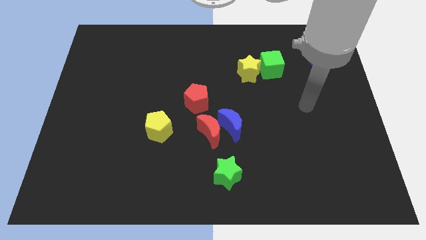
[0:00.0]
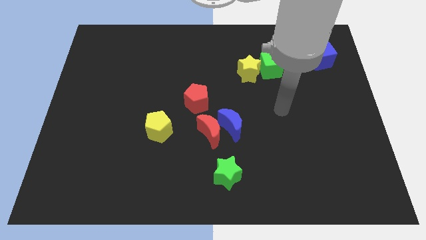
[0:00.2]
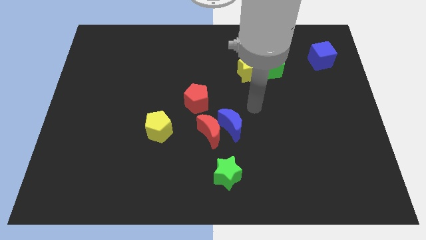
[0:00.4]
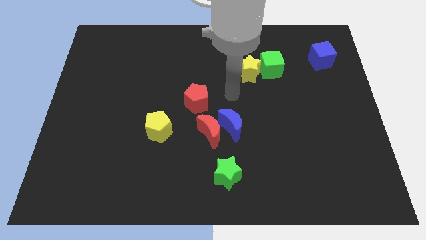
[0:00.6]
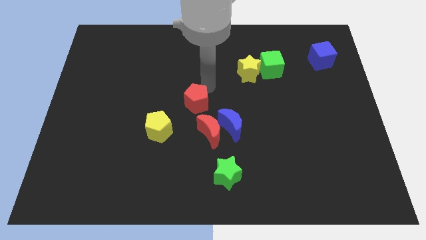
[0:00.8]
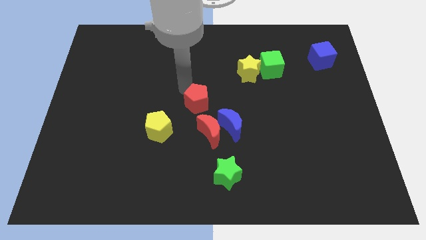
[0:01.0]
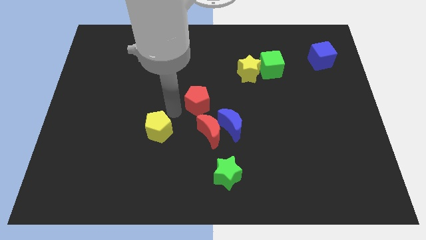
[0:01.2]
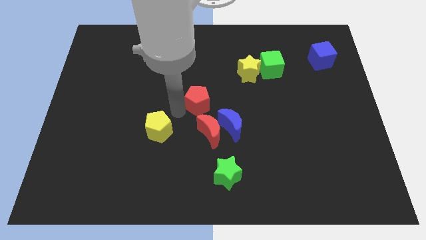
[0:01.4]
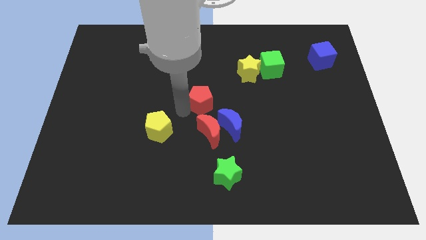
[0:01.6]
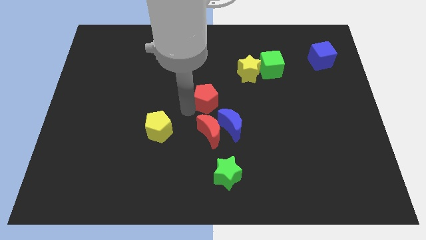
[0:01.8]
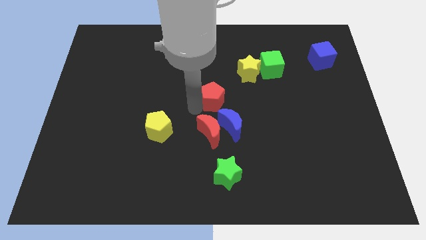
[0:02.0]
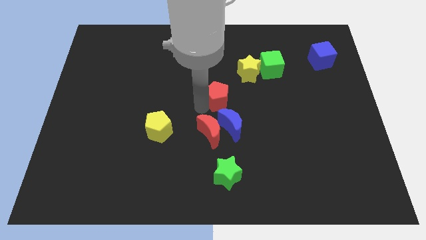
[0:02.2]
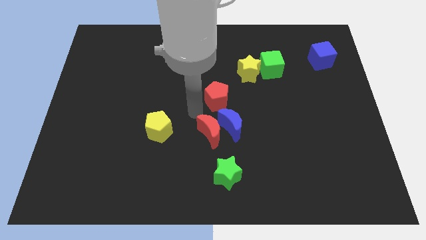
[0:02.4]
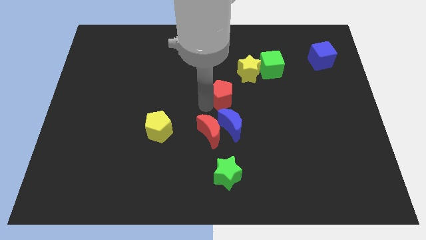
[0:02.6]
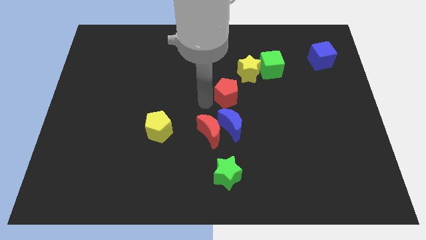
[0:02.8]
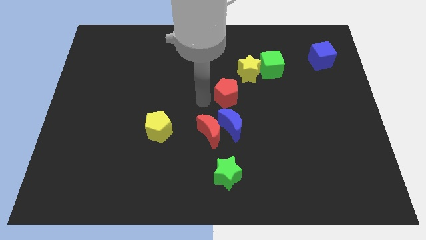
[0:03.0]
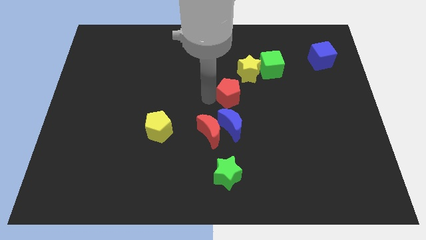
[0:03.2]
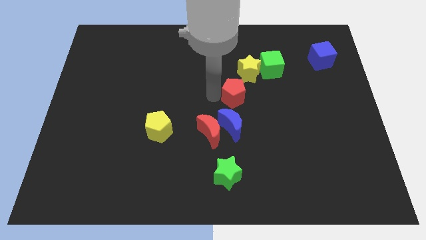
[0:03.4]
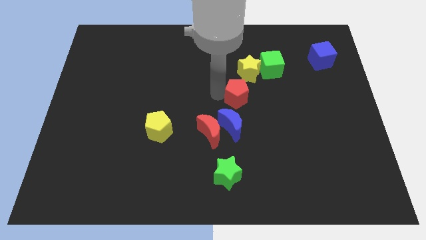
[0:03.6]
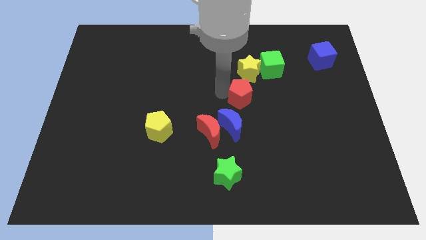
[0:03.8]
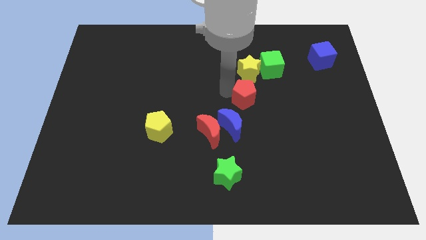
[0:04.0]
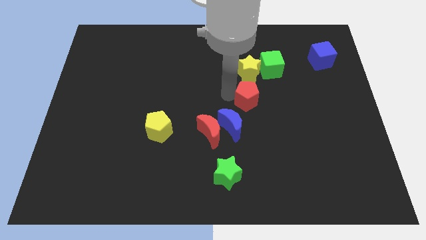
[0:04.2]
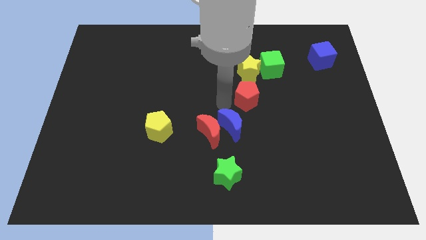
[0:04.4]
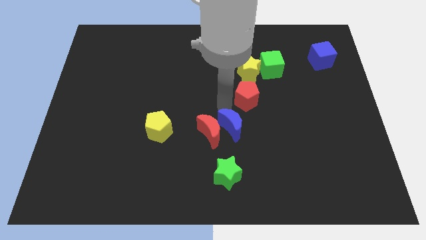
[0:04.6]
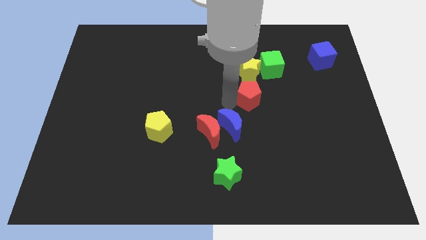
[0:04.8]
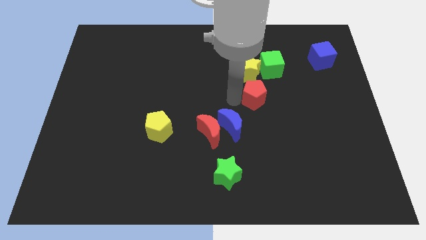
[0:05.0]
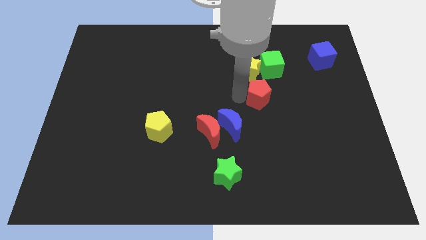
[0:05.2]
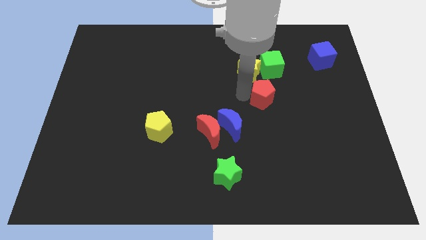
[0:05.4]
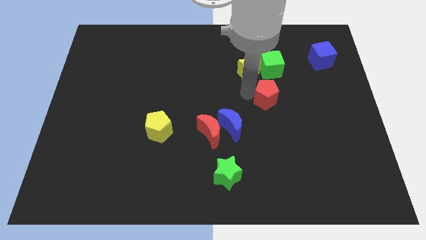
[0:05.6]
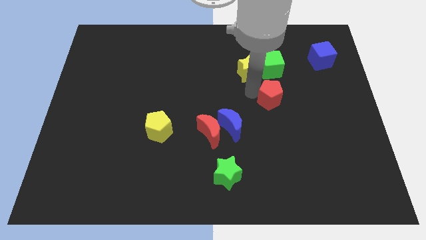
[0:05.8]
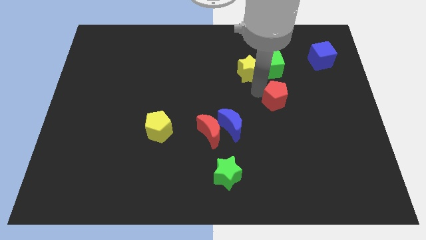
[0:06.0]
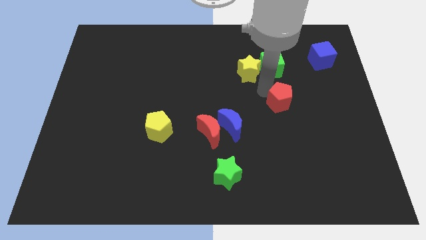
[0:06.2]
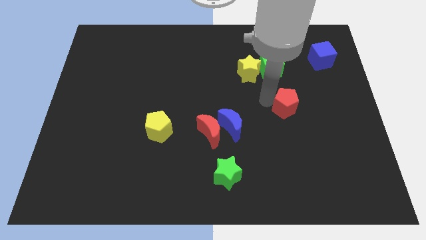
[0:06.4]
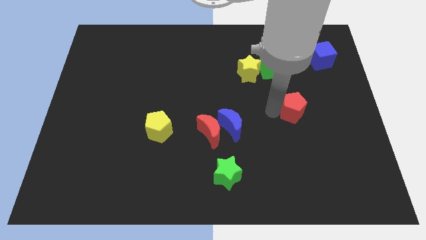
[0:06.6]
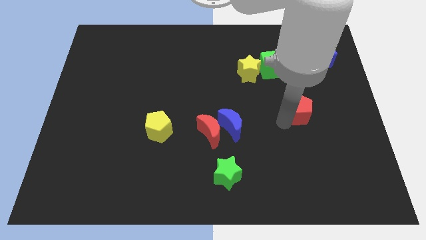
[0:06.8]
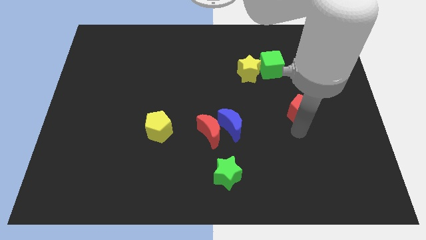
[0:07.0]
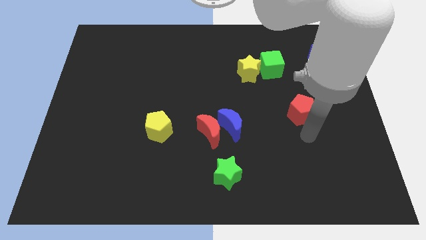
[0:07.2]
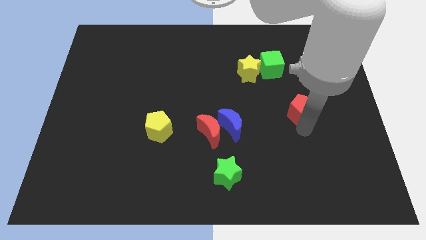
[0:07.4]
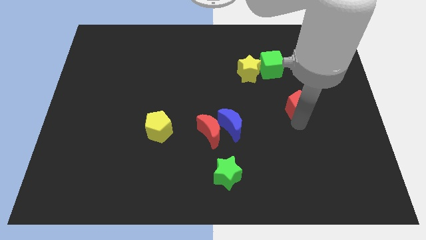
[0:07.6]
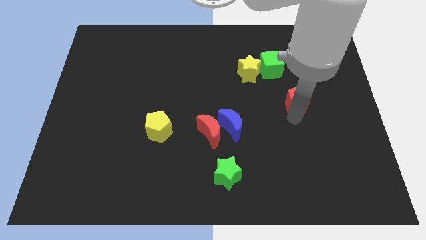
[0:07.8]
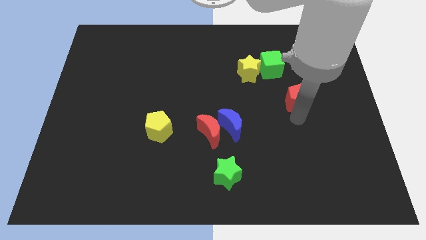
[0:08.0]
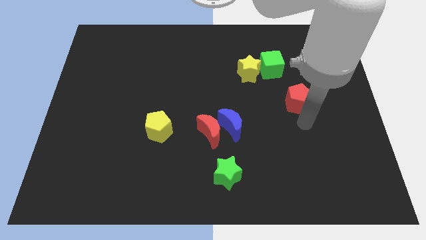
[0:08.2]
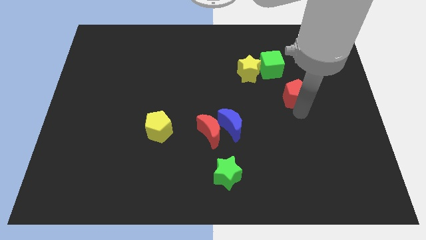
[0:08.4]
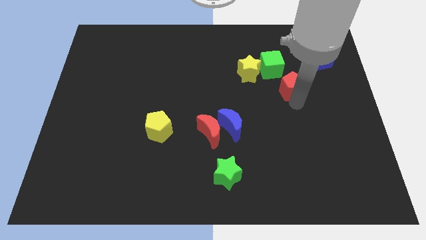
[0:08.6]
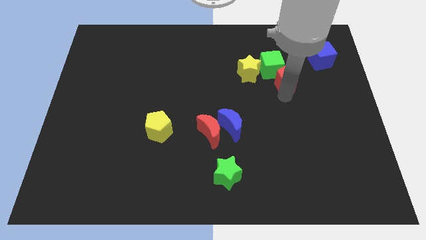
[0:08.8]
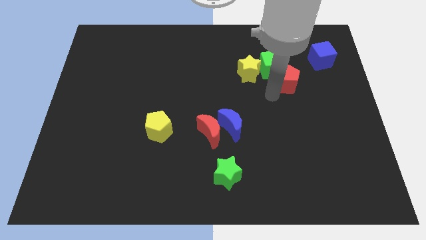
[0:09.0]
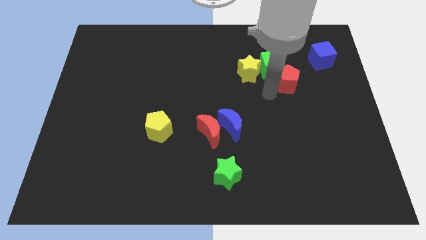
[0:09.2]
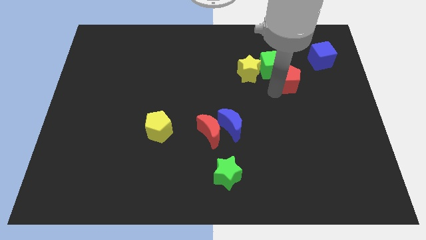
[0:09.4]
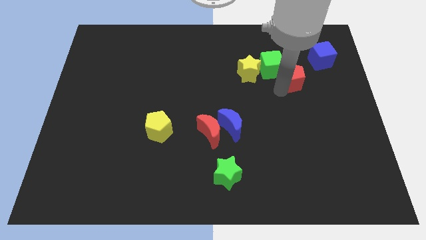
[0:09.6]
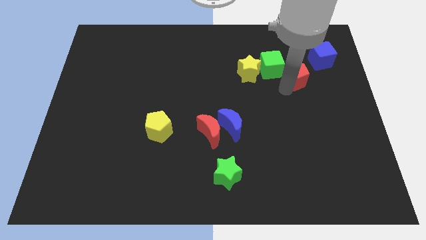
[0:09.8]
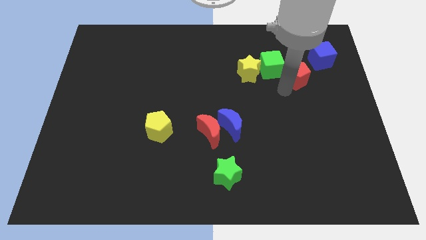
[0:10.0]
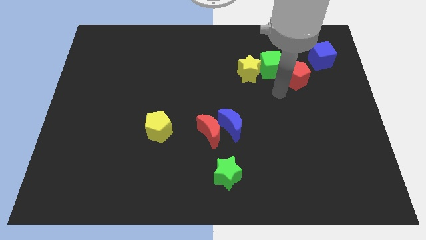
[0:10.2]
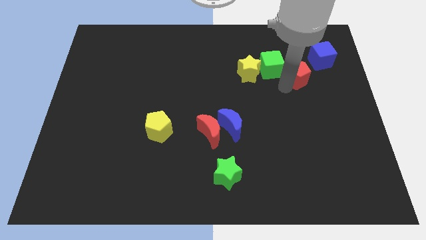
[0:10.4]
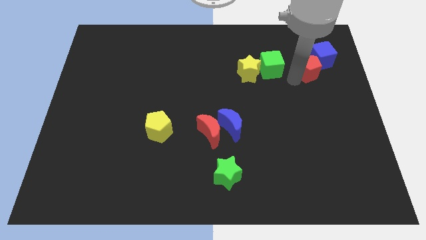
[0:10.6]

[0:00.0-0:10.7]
put the red pentagon close to the blue cube

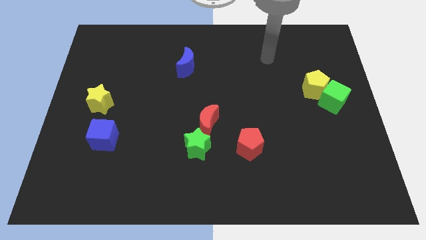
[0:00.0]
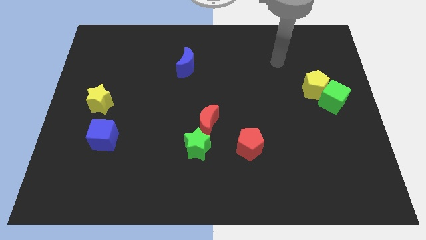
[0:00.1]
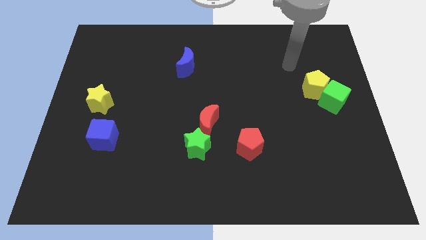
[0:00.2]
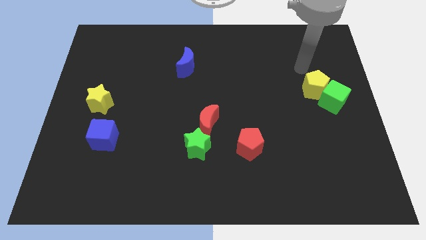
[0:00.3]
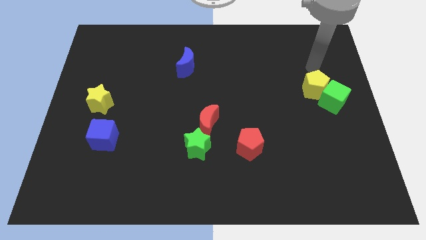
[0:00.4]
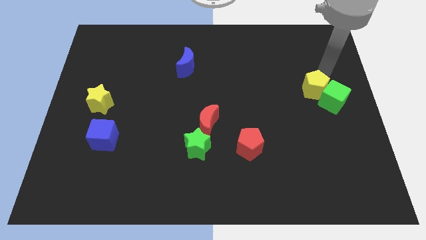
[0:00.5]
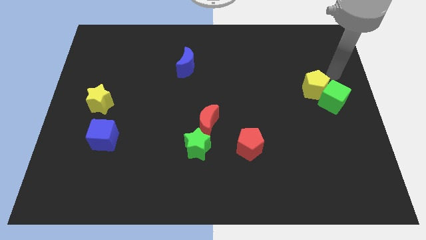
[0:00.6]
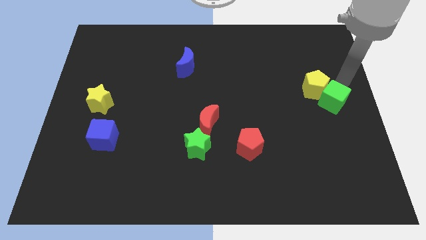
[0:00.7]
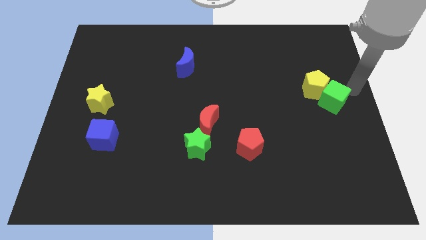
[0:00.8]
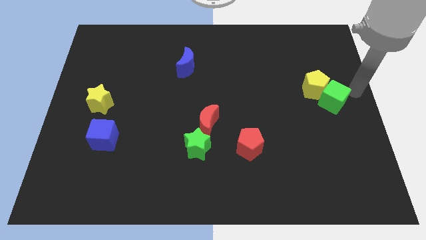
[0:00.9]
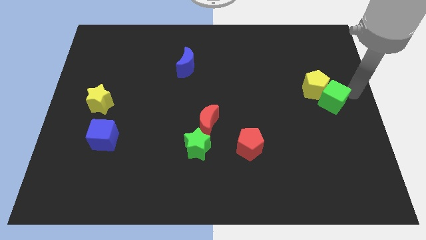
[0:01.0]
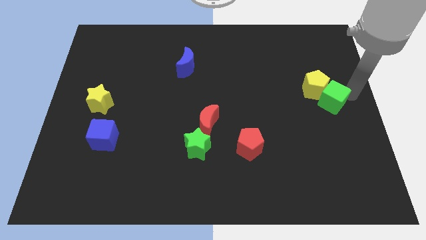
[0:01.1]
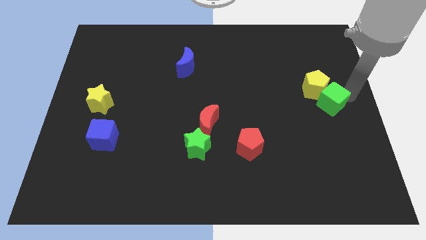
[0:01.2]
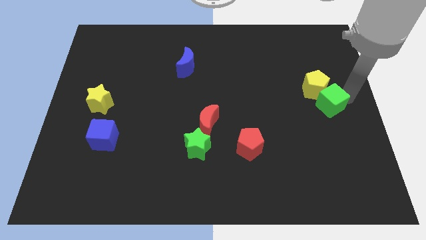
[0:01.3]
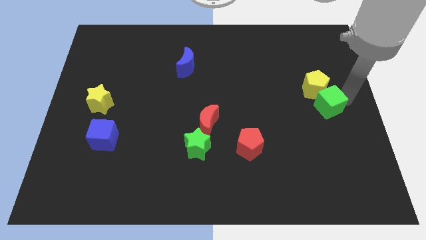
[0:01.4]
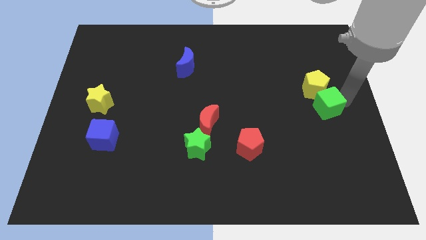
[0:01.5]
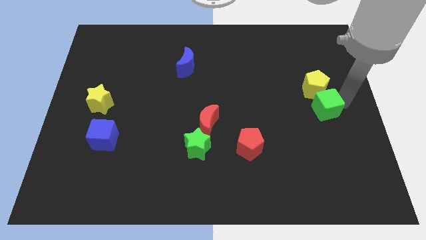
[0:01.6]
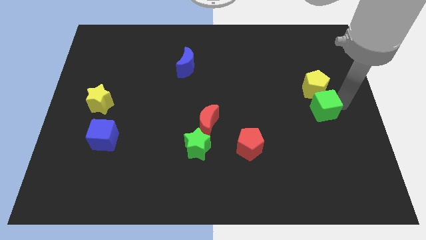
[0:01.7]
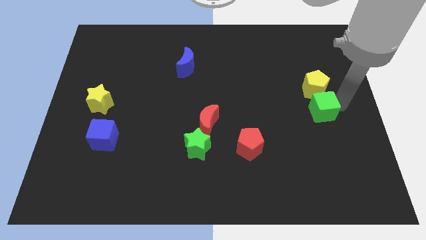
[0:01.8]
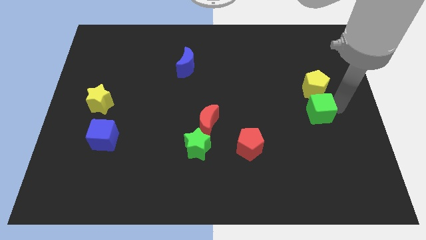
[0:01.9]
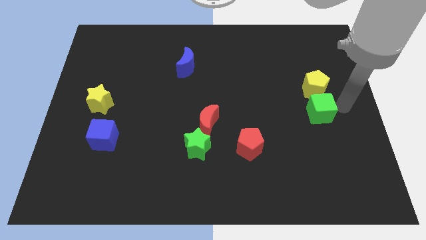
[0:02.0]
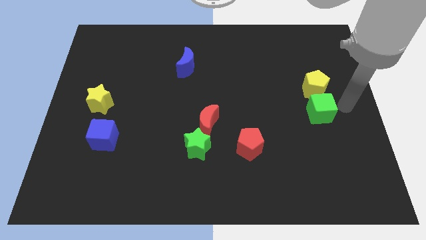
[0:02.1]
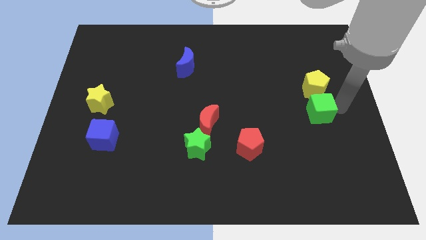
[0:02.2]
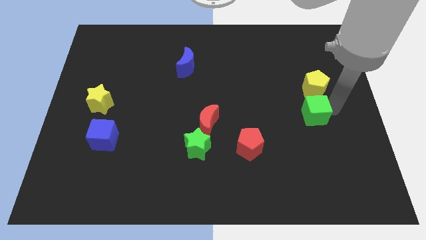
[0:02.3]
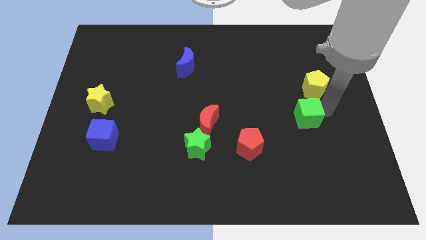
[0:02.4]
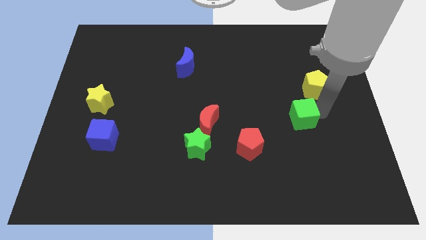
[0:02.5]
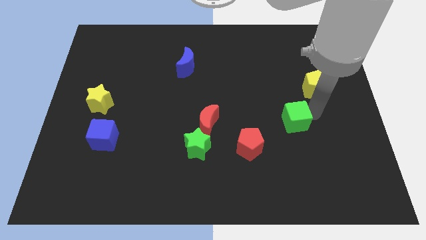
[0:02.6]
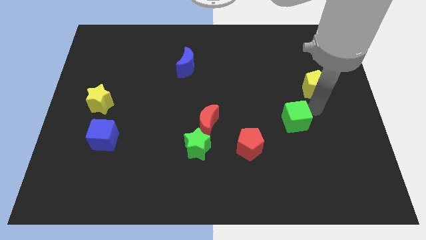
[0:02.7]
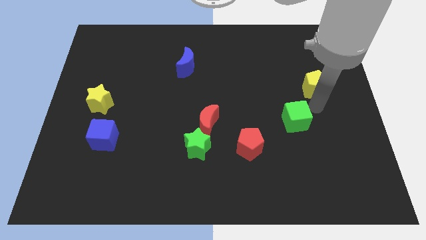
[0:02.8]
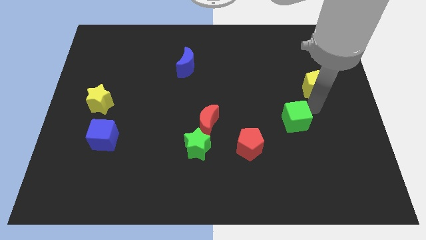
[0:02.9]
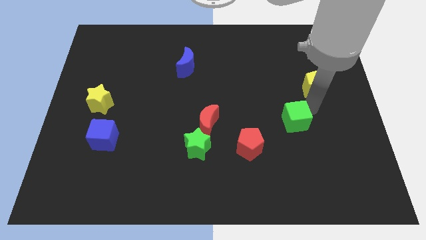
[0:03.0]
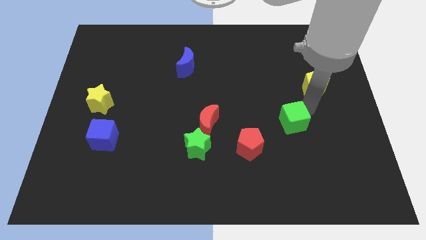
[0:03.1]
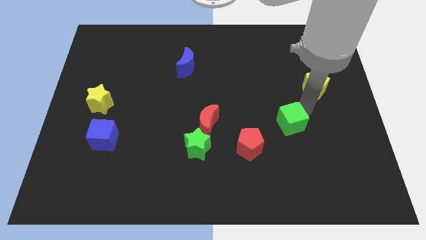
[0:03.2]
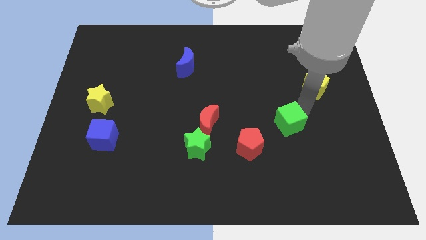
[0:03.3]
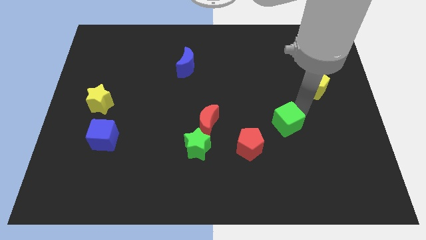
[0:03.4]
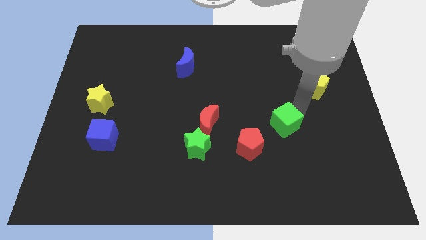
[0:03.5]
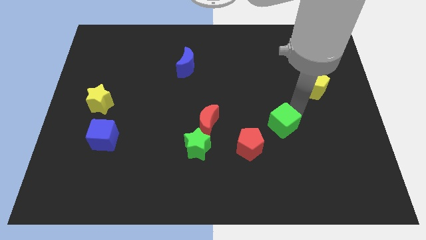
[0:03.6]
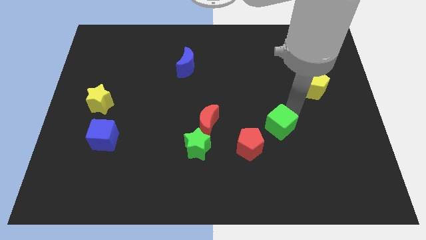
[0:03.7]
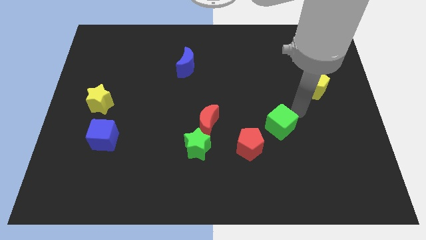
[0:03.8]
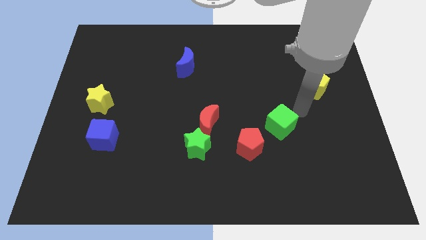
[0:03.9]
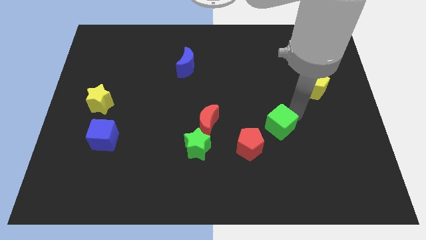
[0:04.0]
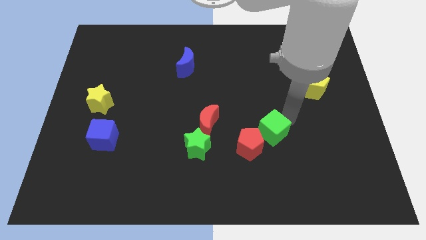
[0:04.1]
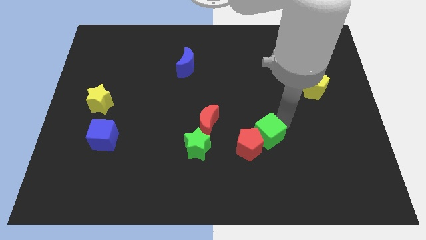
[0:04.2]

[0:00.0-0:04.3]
push the green cube next to the red pentagon
